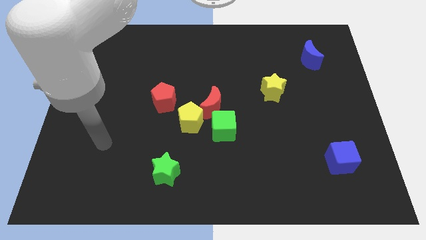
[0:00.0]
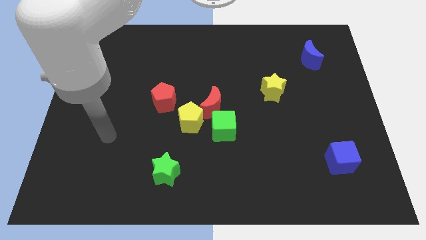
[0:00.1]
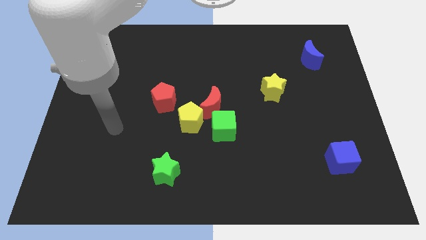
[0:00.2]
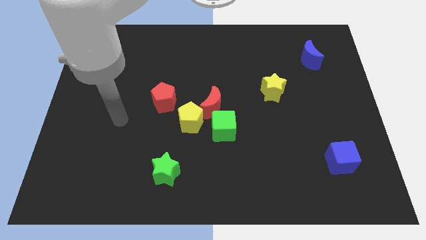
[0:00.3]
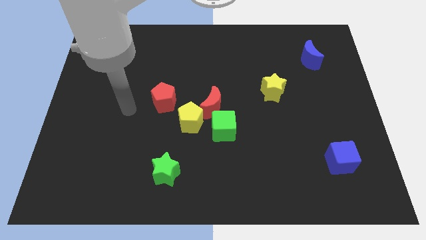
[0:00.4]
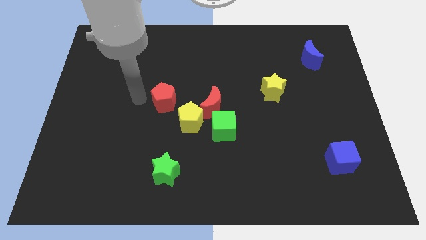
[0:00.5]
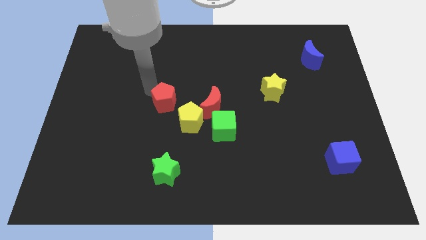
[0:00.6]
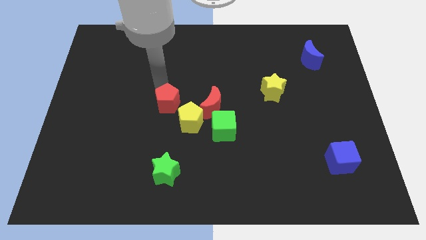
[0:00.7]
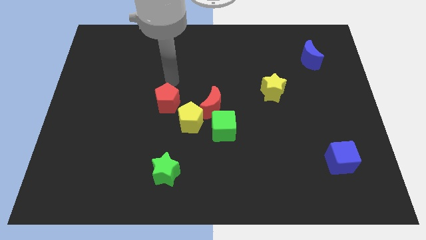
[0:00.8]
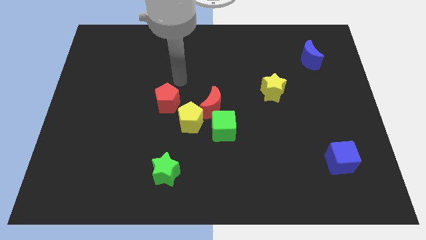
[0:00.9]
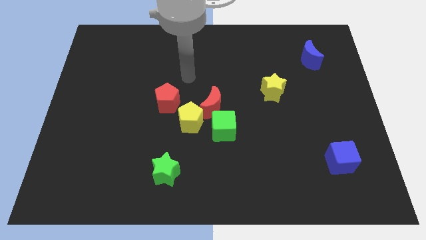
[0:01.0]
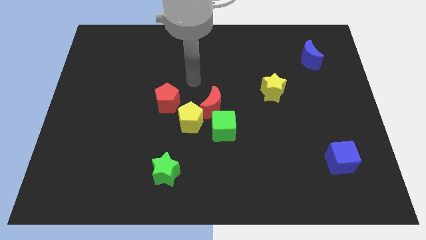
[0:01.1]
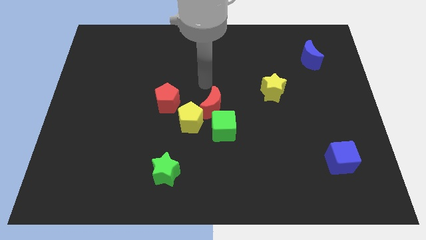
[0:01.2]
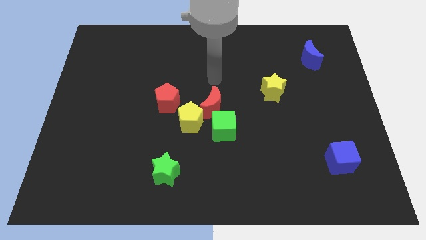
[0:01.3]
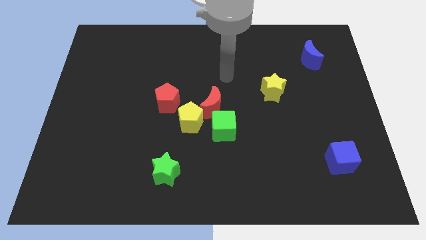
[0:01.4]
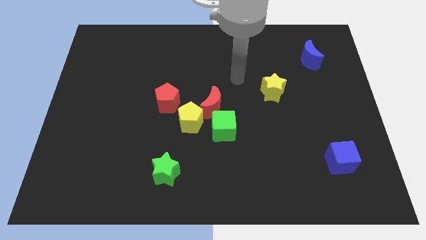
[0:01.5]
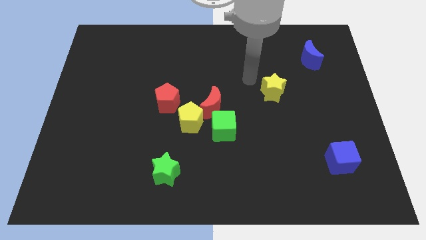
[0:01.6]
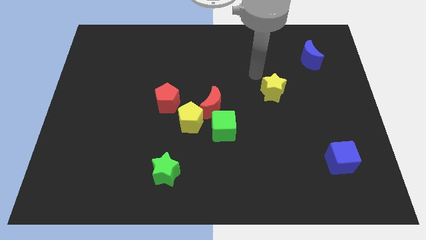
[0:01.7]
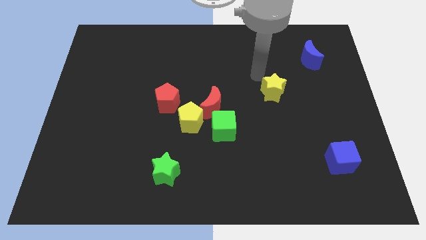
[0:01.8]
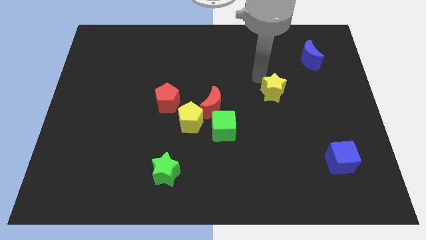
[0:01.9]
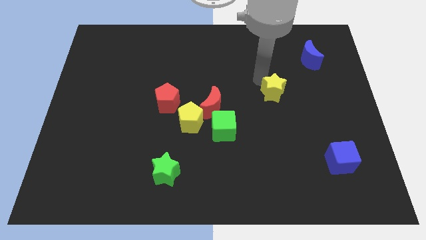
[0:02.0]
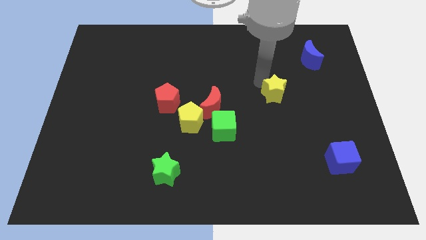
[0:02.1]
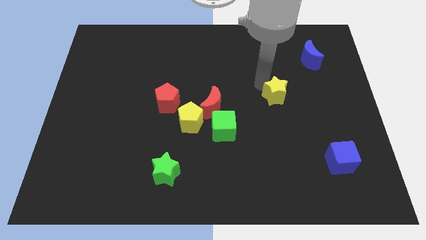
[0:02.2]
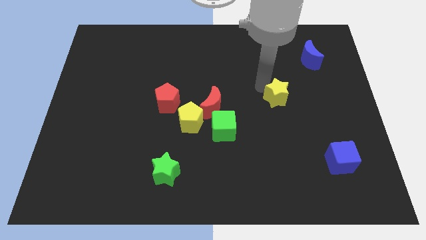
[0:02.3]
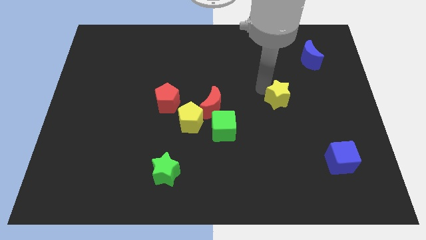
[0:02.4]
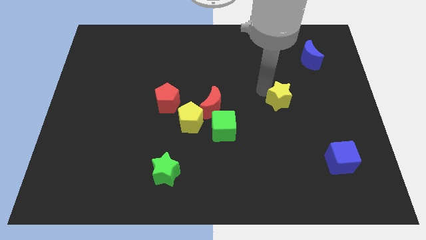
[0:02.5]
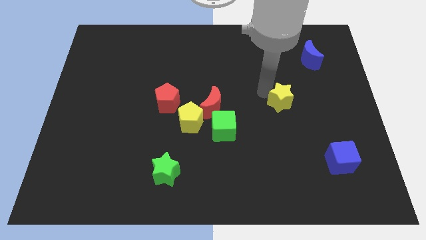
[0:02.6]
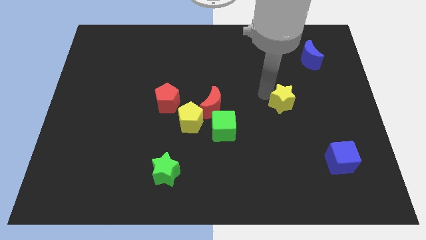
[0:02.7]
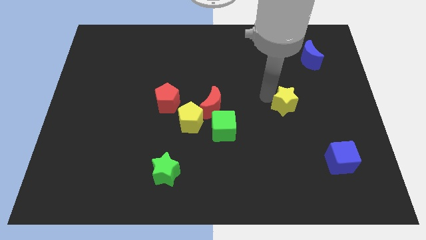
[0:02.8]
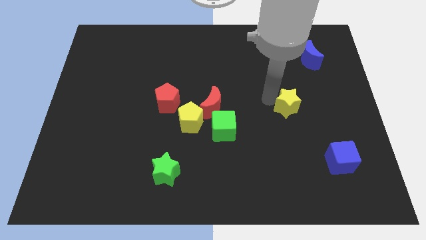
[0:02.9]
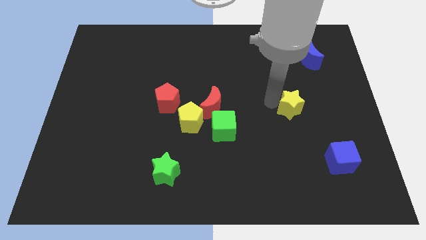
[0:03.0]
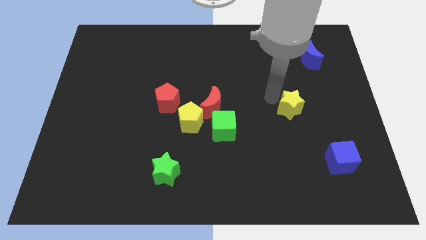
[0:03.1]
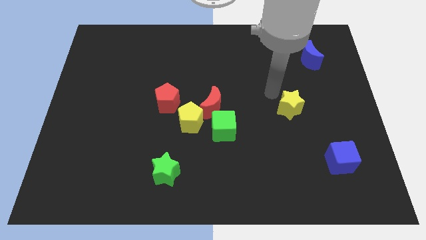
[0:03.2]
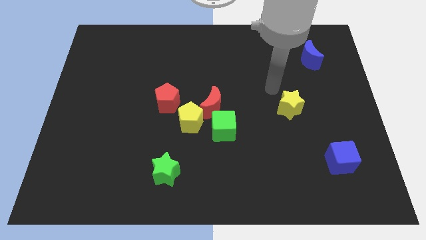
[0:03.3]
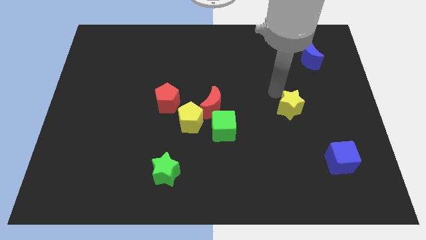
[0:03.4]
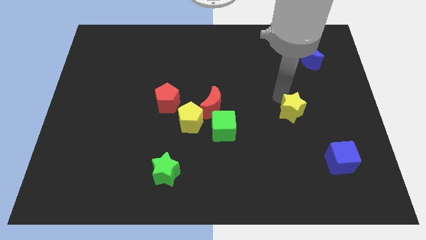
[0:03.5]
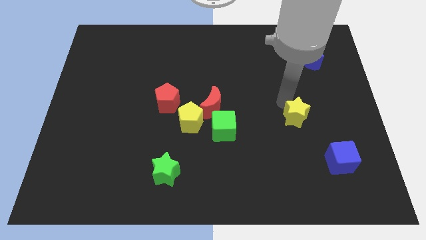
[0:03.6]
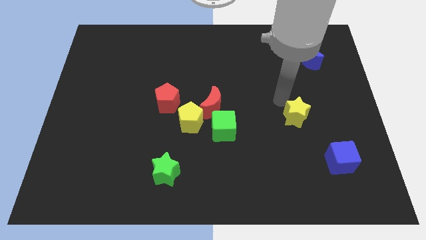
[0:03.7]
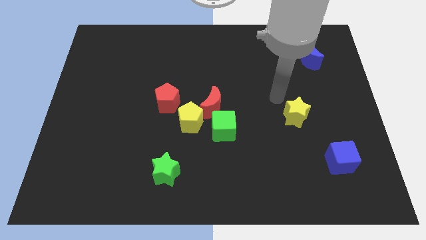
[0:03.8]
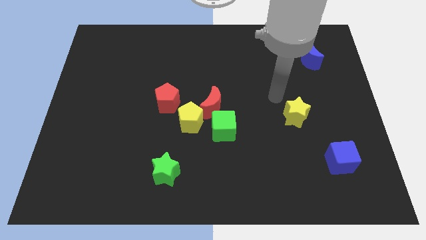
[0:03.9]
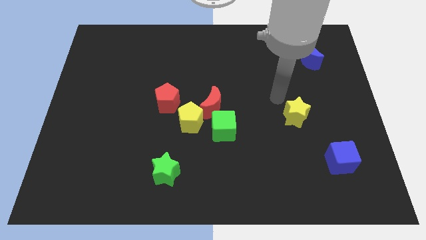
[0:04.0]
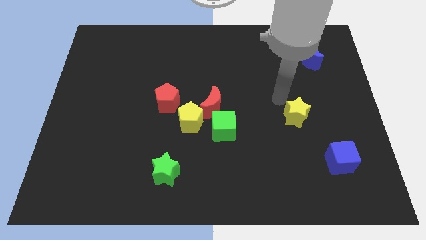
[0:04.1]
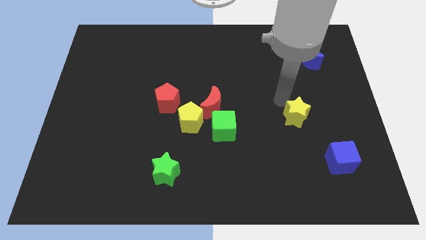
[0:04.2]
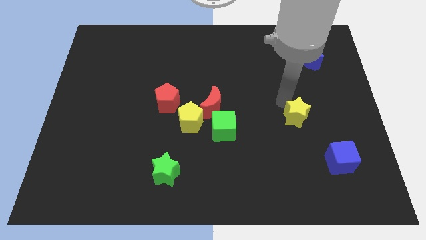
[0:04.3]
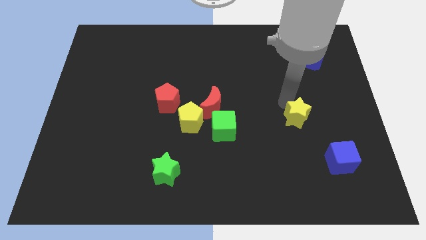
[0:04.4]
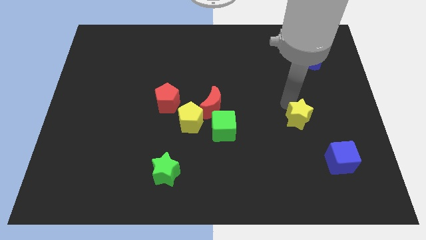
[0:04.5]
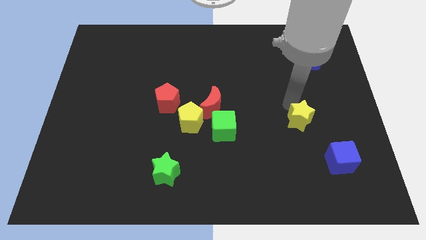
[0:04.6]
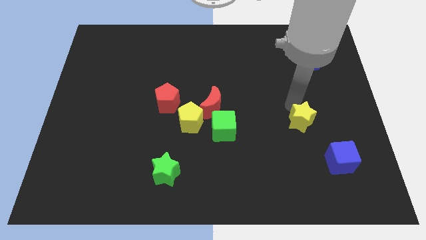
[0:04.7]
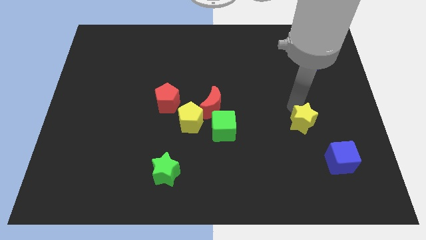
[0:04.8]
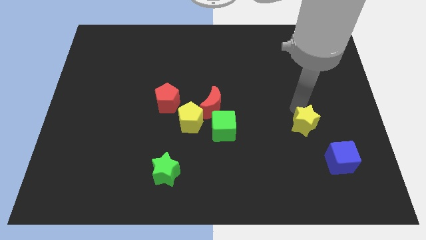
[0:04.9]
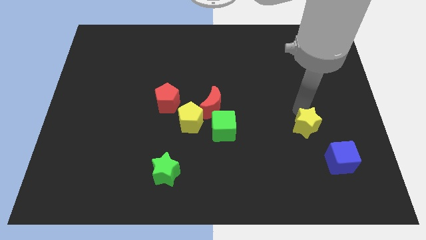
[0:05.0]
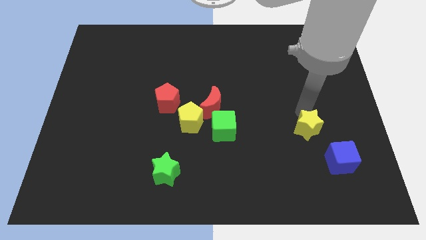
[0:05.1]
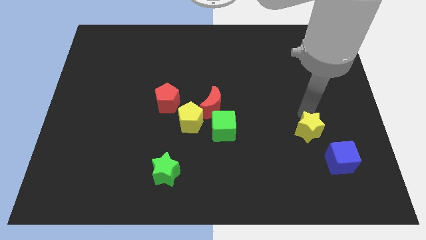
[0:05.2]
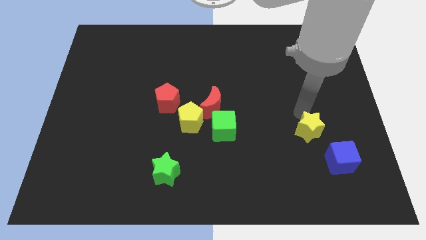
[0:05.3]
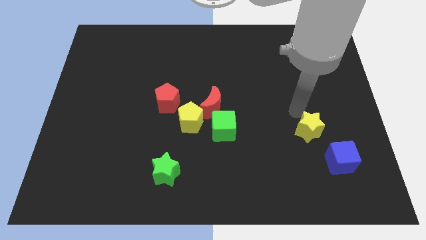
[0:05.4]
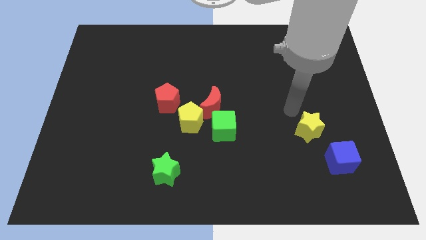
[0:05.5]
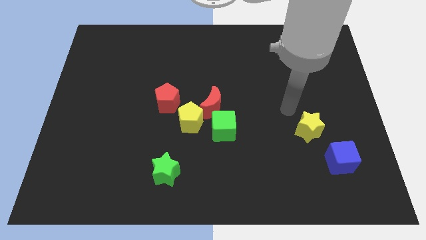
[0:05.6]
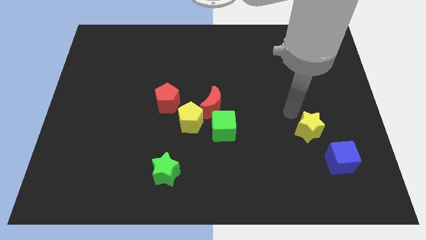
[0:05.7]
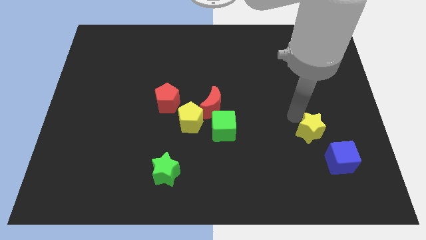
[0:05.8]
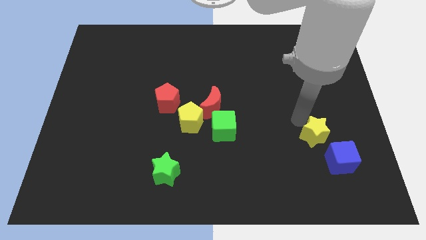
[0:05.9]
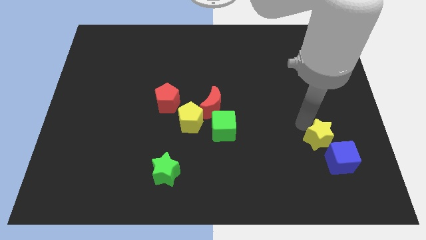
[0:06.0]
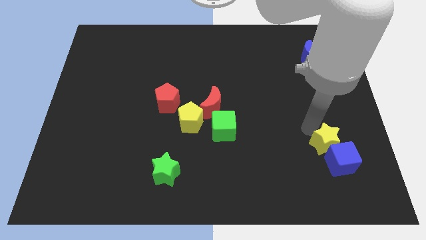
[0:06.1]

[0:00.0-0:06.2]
push the yellow star to the blue cube

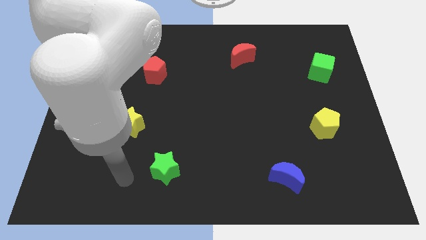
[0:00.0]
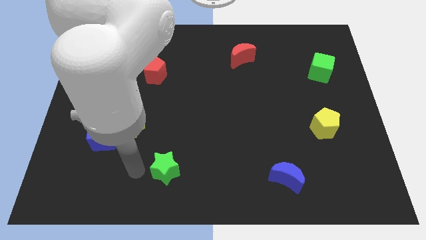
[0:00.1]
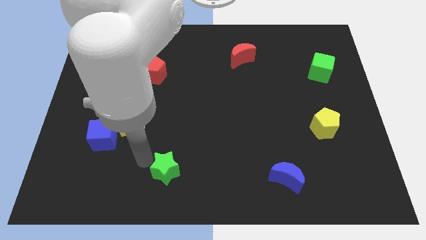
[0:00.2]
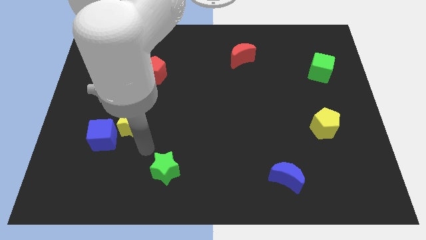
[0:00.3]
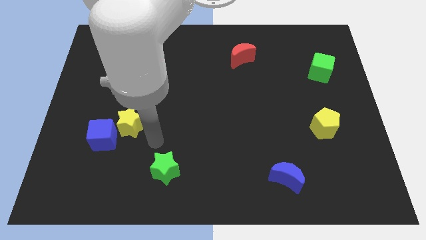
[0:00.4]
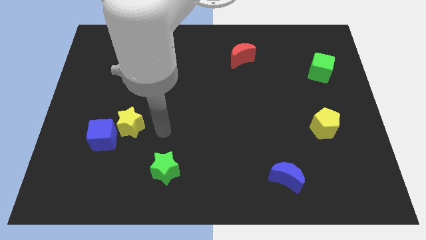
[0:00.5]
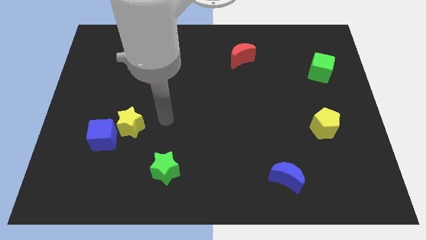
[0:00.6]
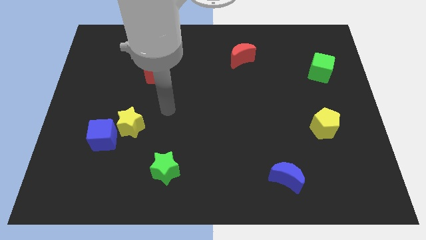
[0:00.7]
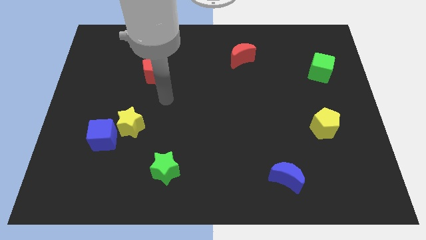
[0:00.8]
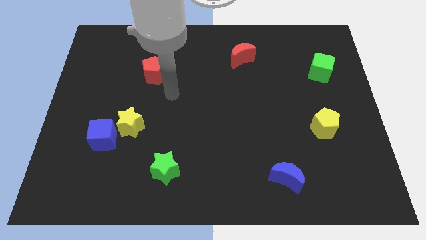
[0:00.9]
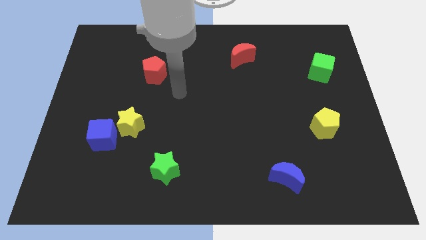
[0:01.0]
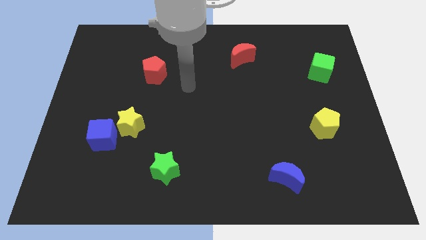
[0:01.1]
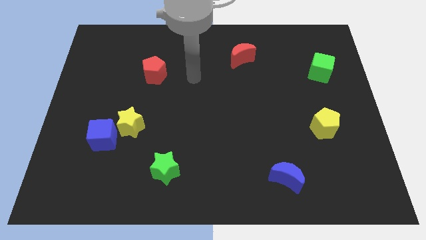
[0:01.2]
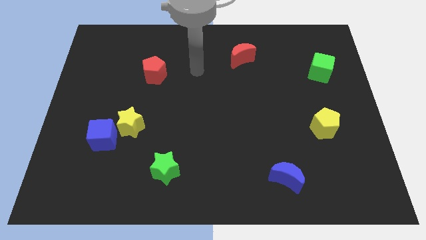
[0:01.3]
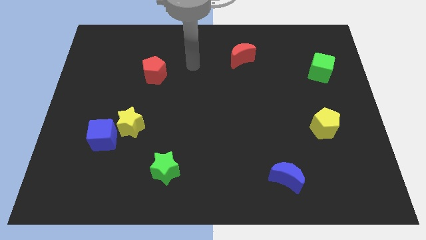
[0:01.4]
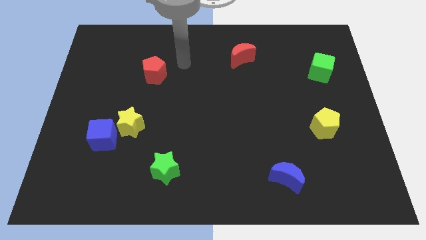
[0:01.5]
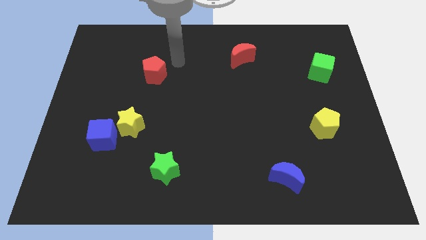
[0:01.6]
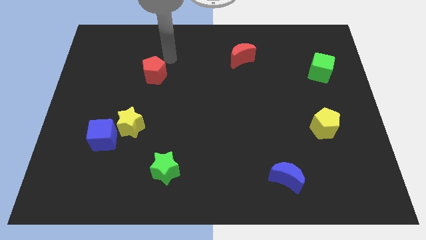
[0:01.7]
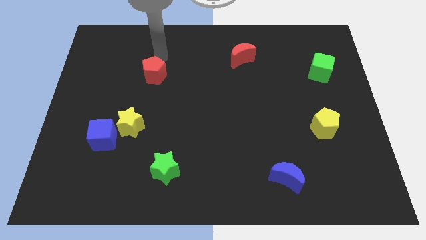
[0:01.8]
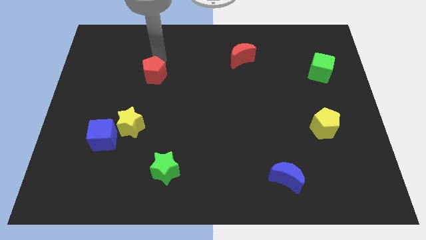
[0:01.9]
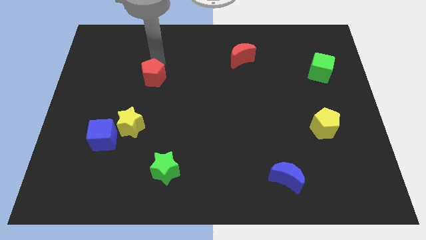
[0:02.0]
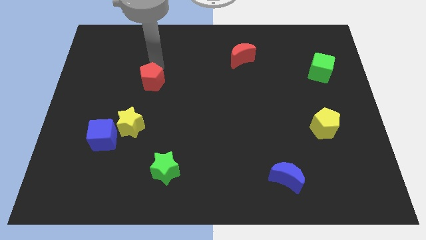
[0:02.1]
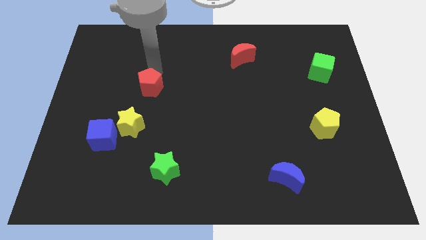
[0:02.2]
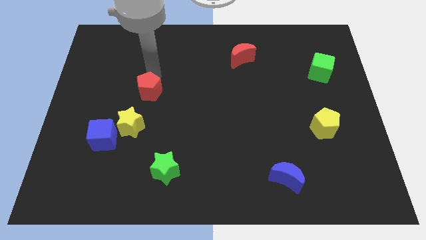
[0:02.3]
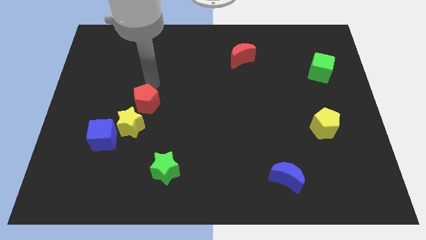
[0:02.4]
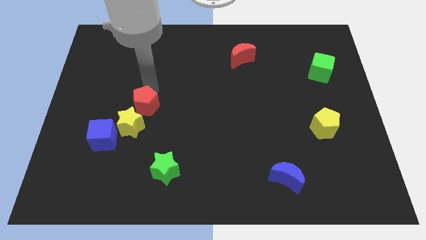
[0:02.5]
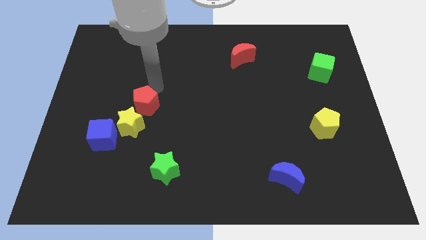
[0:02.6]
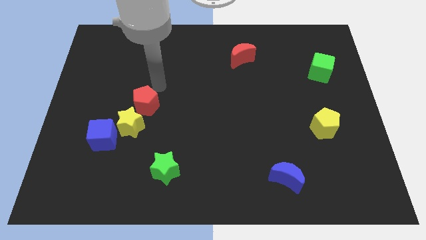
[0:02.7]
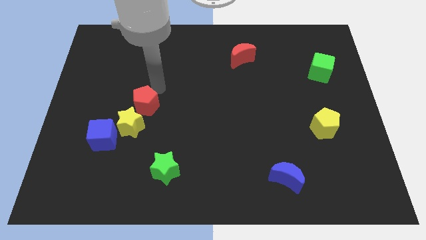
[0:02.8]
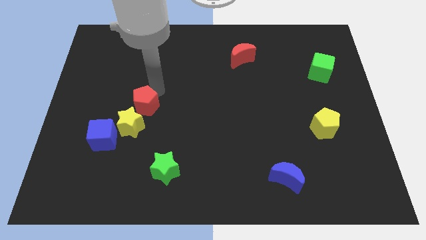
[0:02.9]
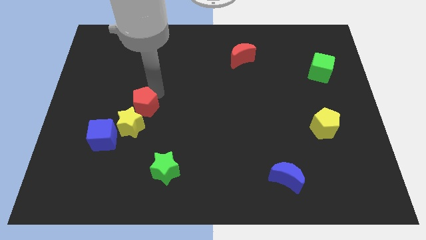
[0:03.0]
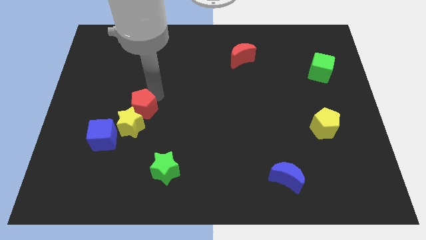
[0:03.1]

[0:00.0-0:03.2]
put the red pentagon towards the yellow star
